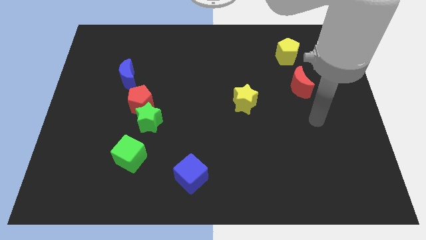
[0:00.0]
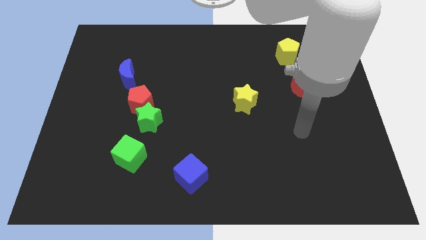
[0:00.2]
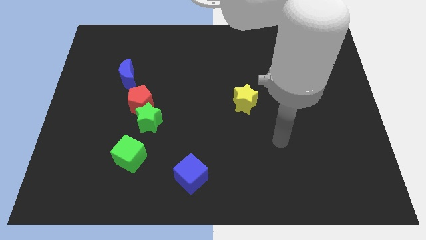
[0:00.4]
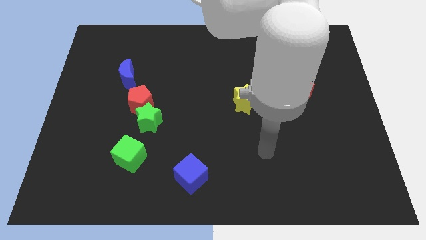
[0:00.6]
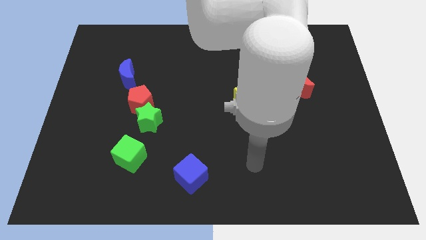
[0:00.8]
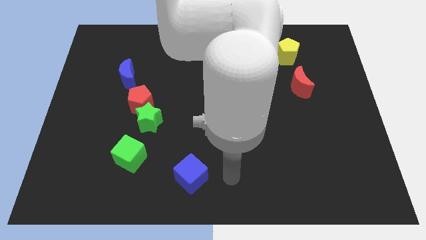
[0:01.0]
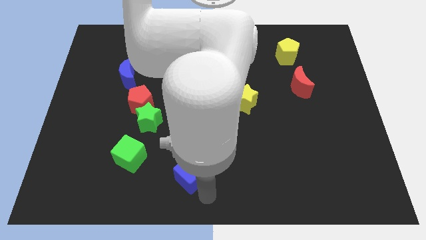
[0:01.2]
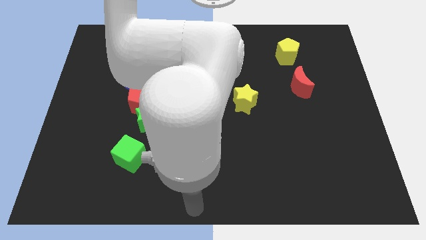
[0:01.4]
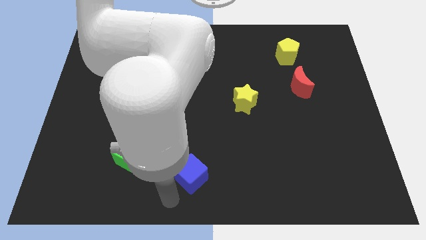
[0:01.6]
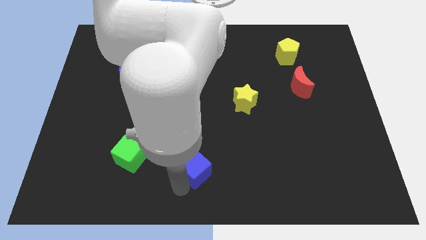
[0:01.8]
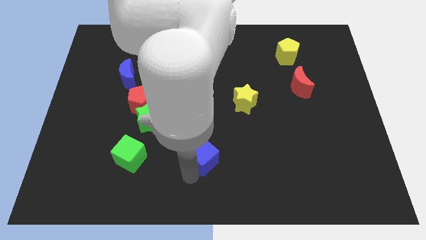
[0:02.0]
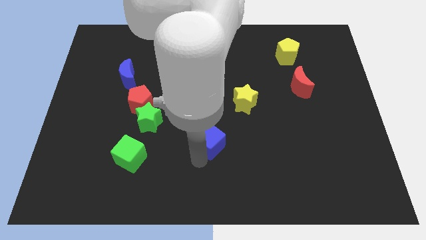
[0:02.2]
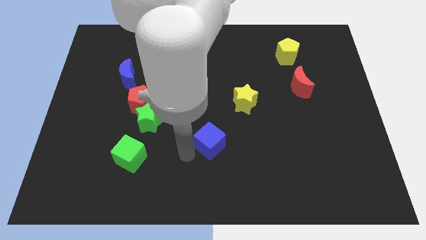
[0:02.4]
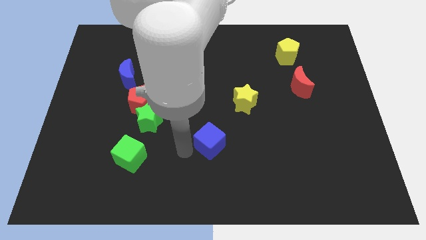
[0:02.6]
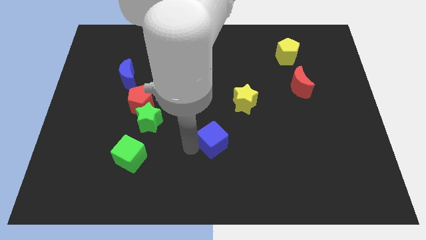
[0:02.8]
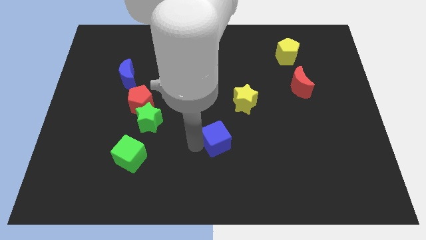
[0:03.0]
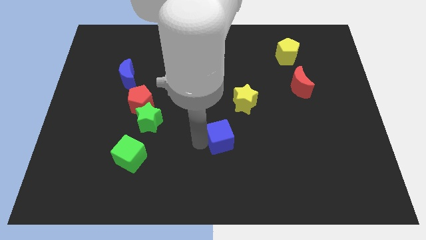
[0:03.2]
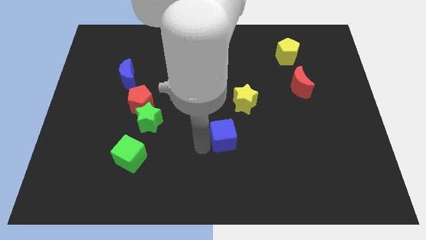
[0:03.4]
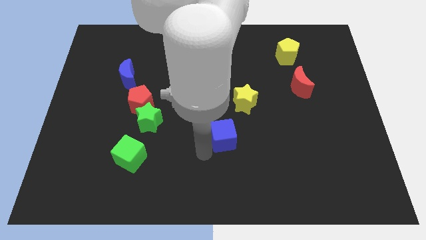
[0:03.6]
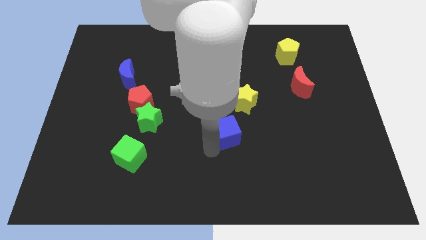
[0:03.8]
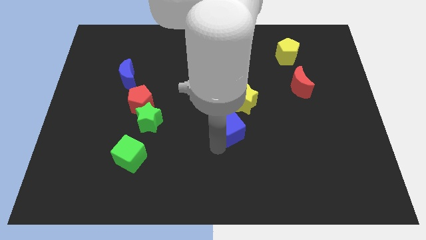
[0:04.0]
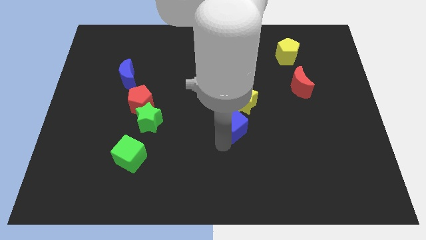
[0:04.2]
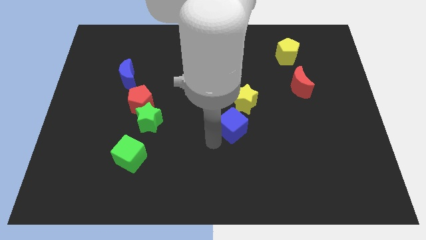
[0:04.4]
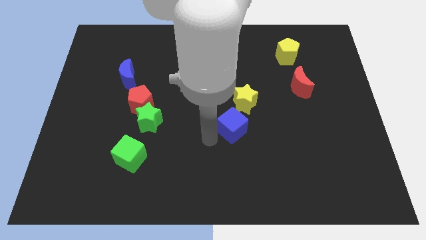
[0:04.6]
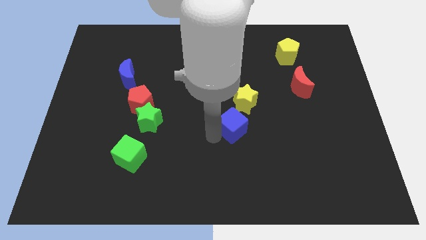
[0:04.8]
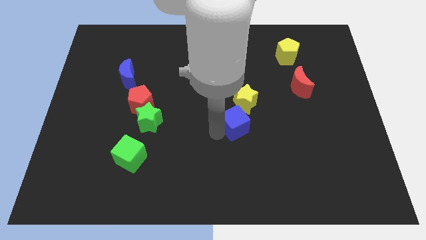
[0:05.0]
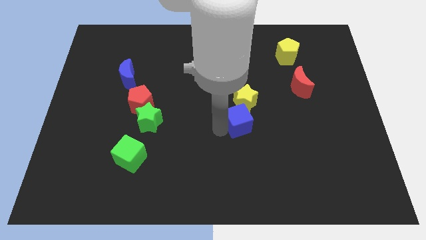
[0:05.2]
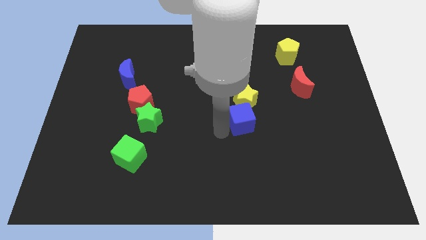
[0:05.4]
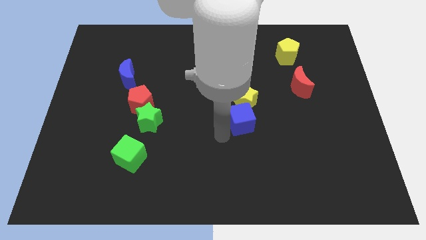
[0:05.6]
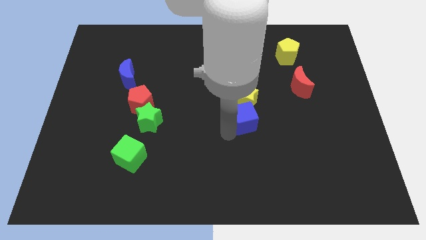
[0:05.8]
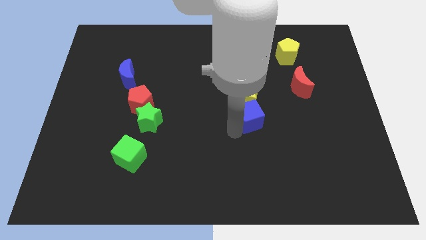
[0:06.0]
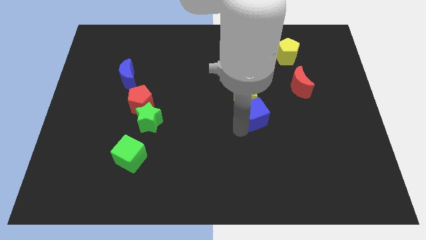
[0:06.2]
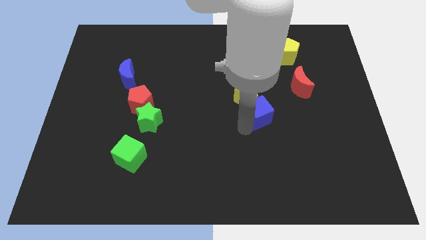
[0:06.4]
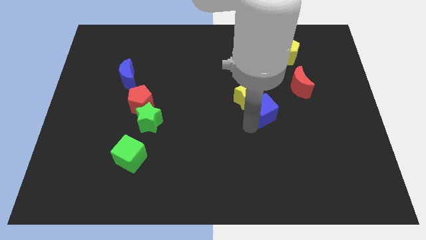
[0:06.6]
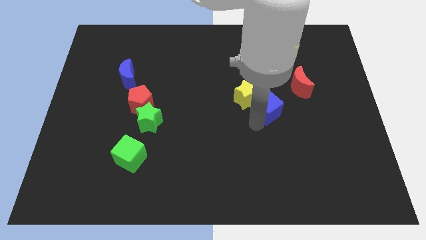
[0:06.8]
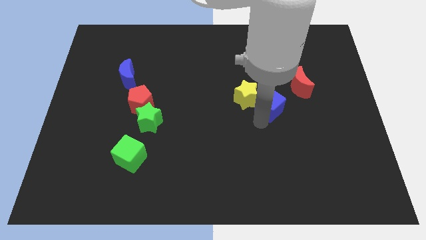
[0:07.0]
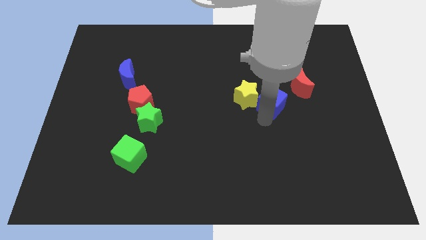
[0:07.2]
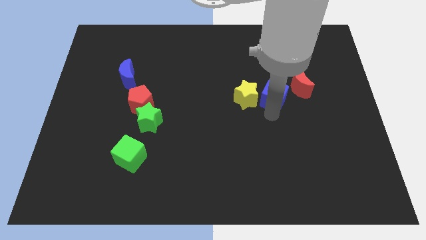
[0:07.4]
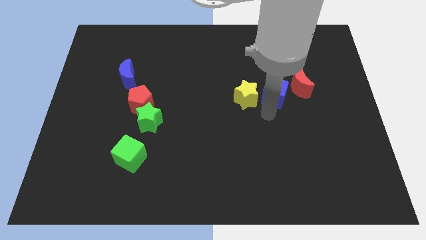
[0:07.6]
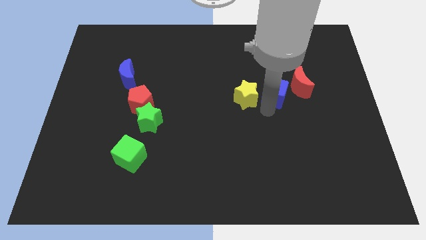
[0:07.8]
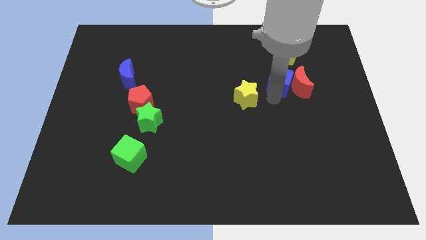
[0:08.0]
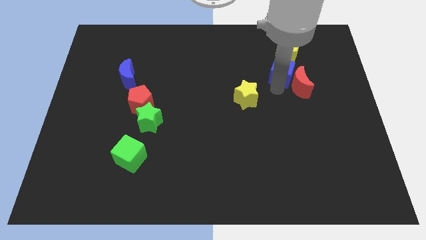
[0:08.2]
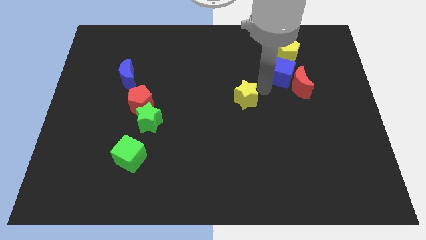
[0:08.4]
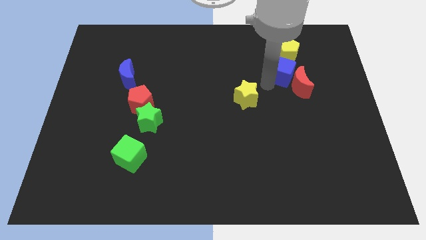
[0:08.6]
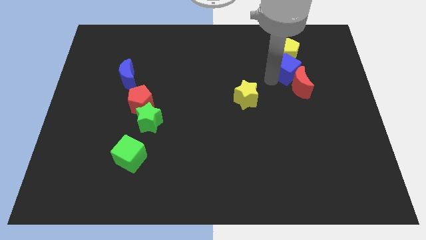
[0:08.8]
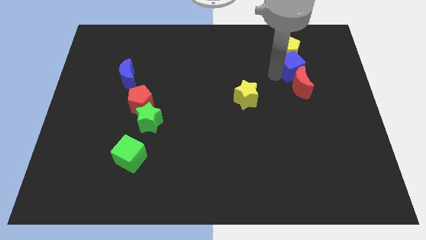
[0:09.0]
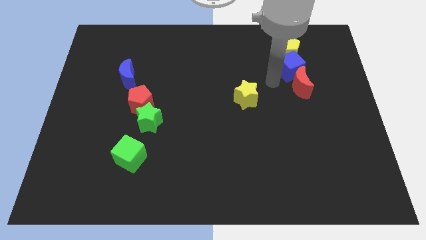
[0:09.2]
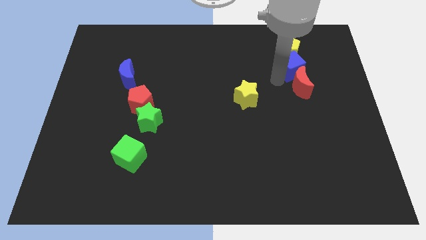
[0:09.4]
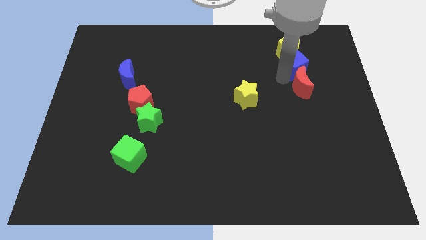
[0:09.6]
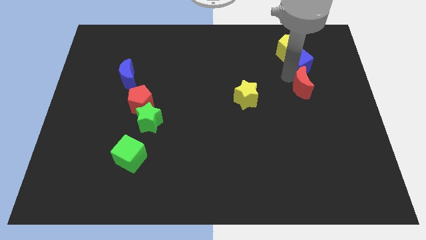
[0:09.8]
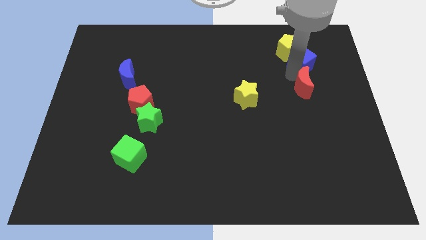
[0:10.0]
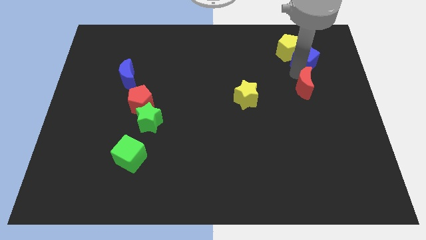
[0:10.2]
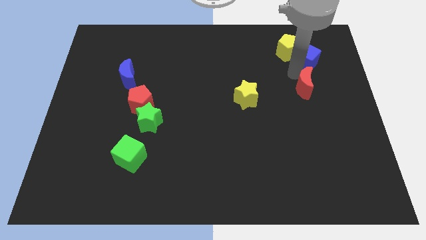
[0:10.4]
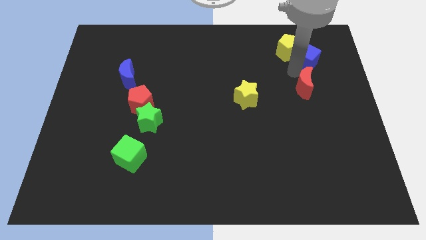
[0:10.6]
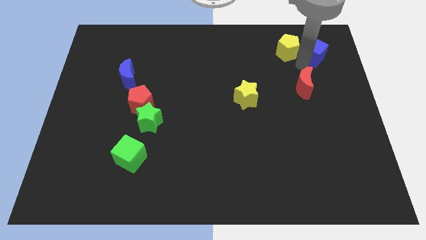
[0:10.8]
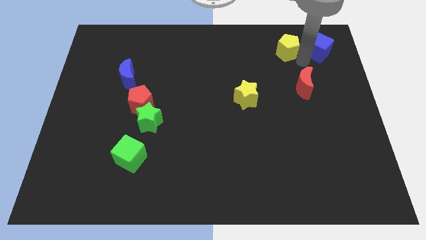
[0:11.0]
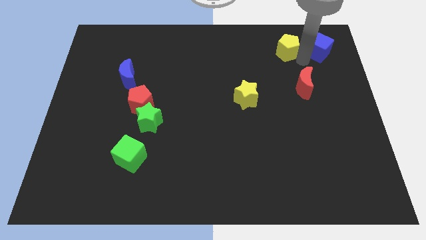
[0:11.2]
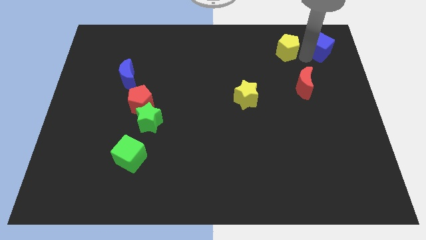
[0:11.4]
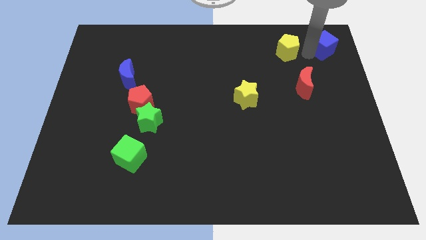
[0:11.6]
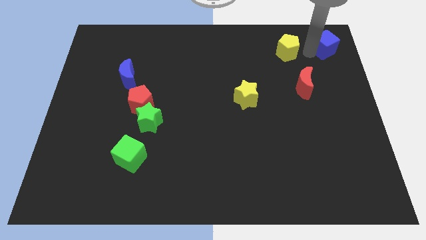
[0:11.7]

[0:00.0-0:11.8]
slide the blue cube to the top right corner
